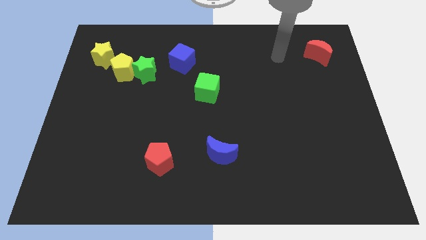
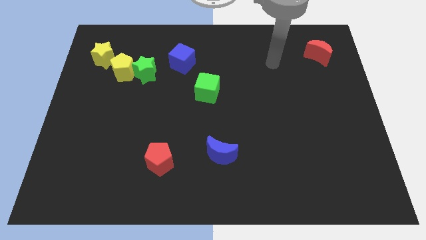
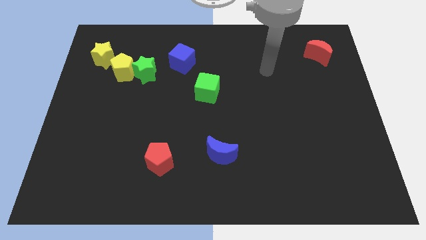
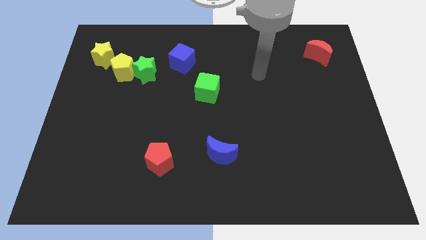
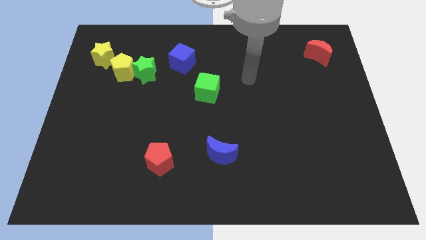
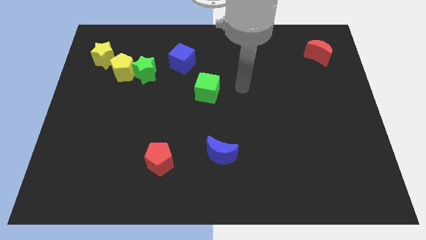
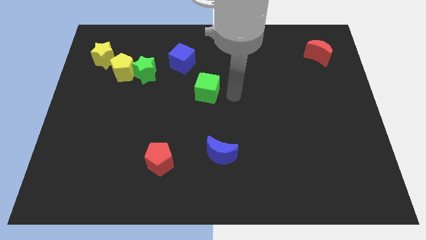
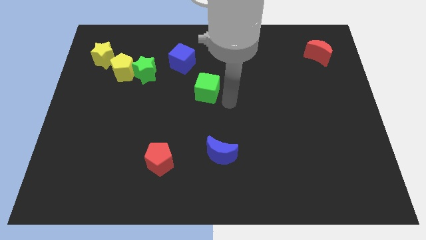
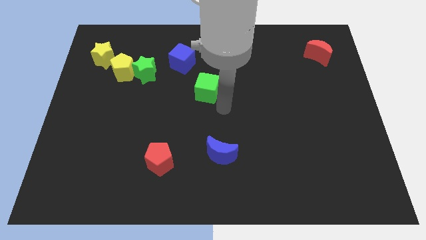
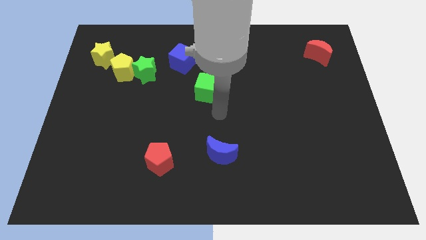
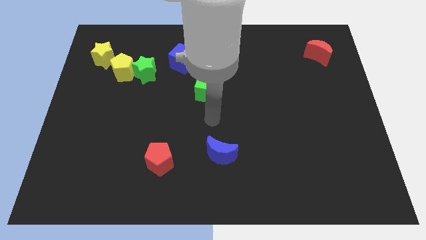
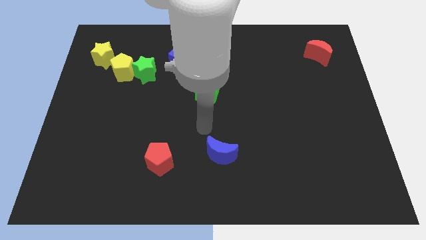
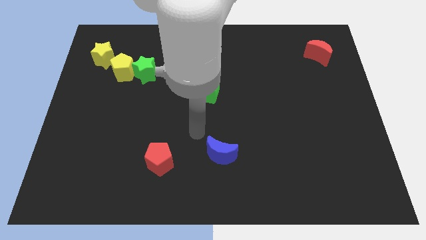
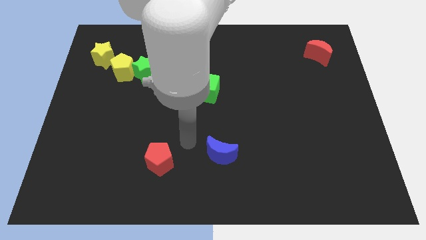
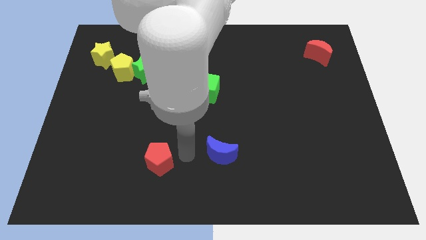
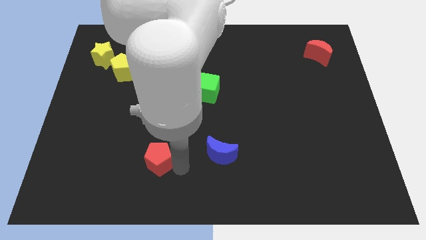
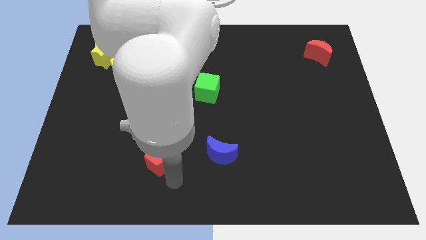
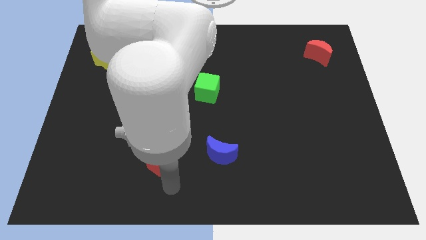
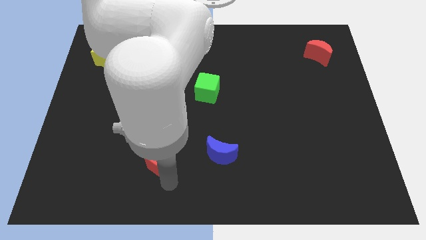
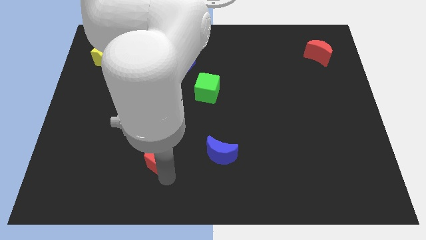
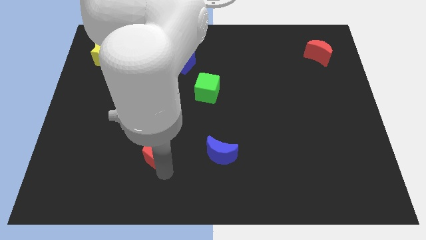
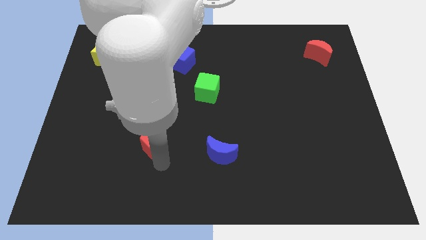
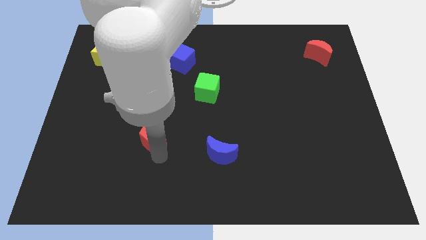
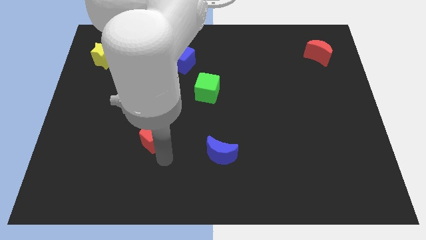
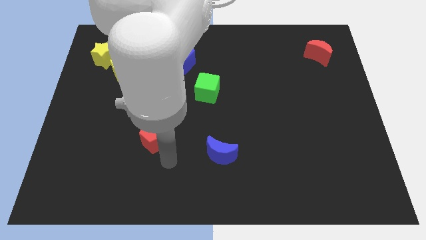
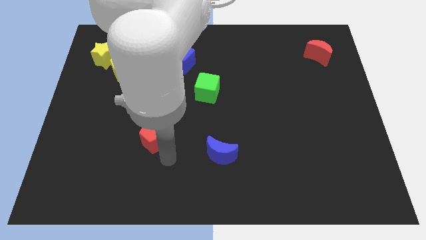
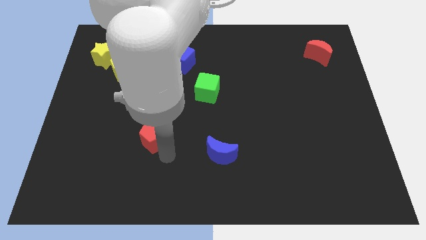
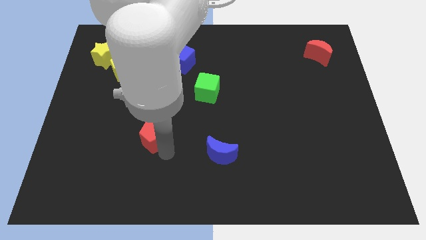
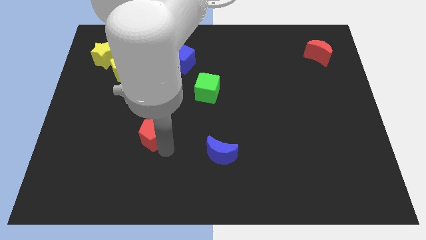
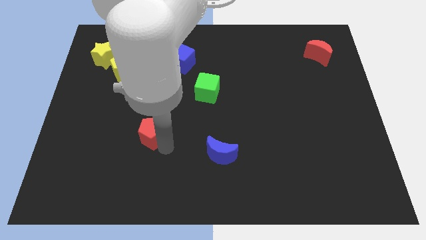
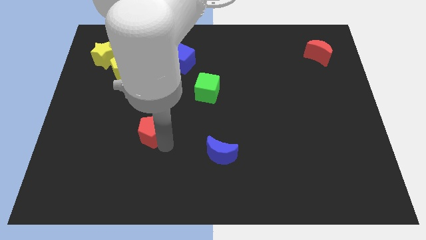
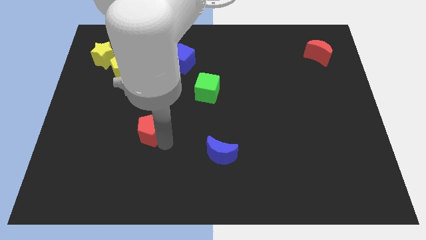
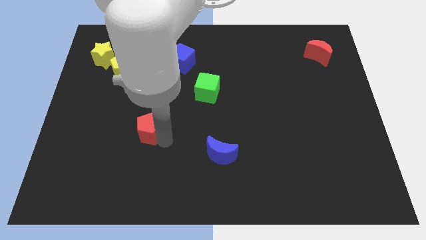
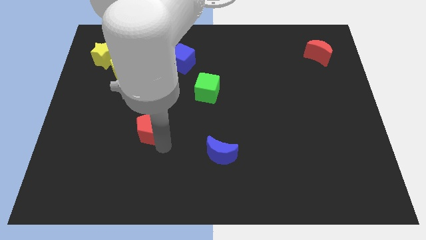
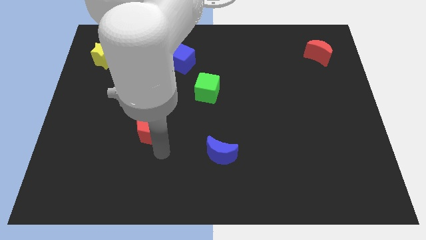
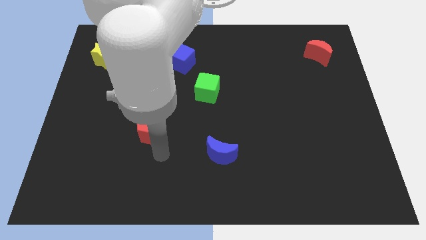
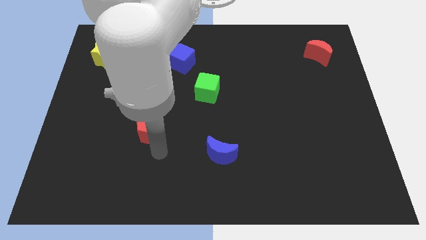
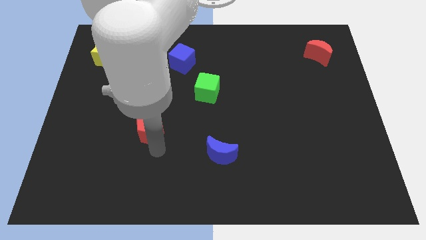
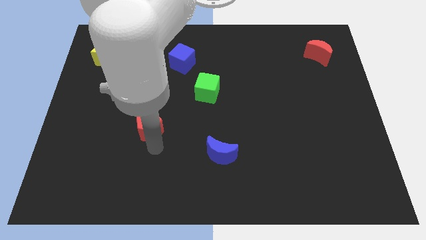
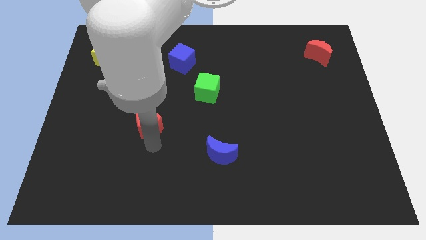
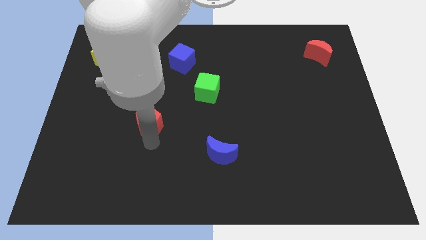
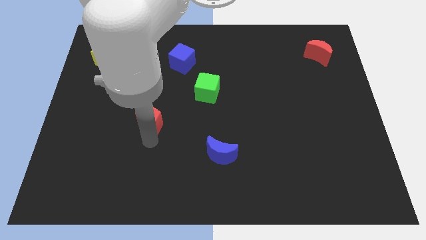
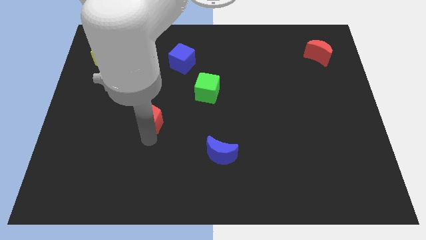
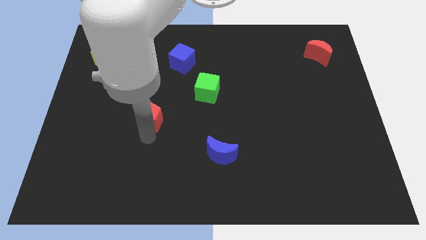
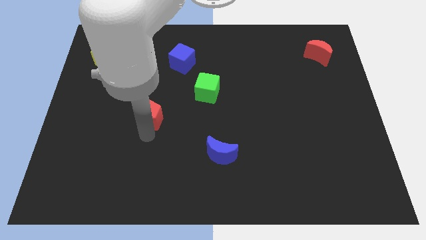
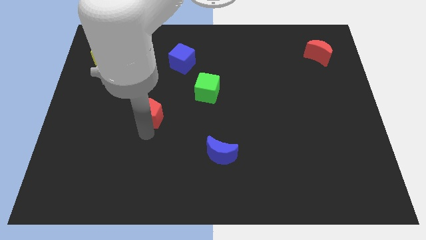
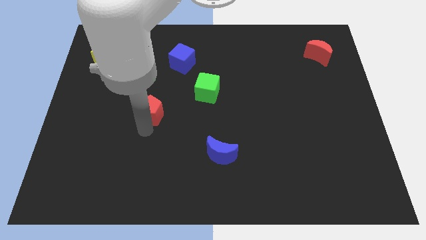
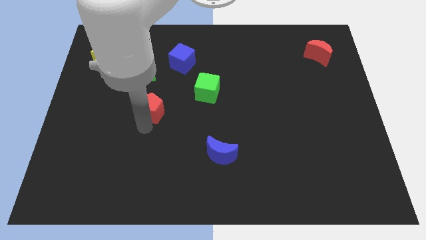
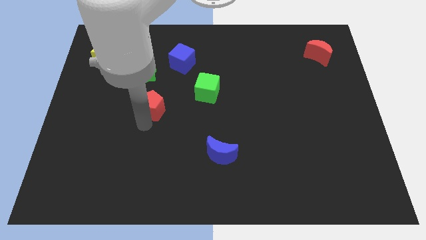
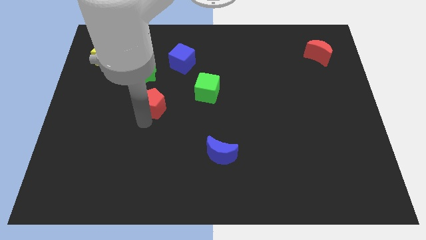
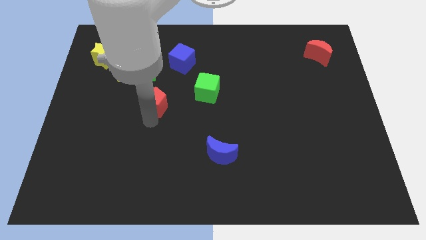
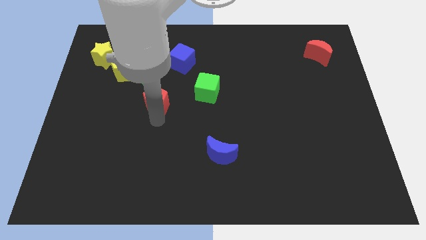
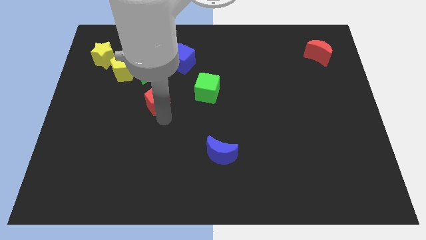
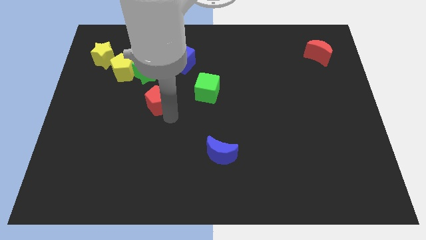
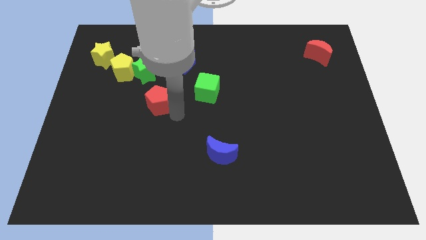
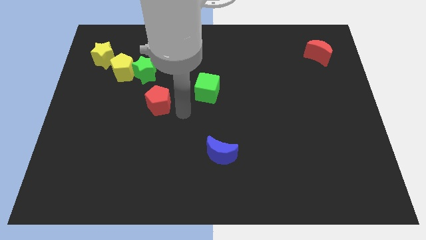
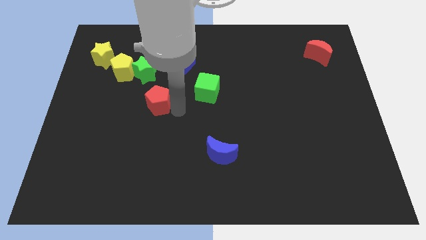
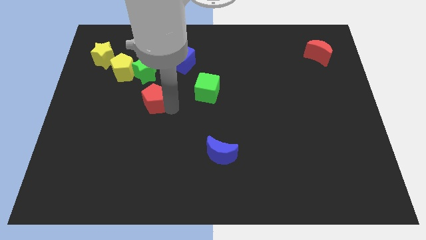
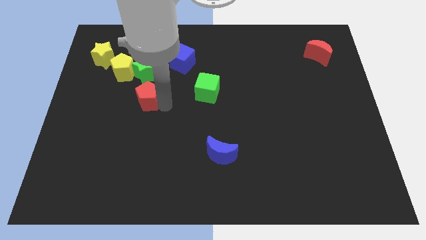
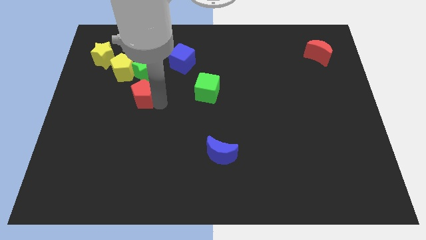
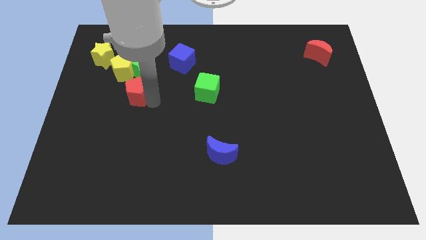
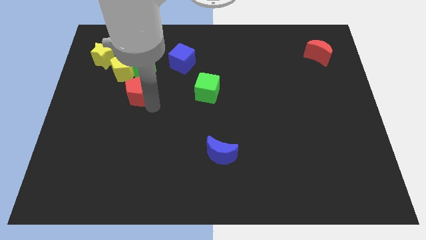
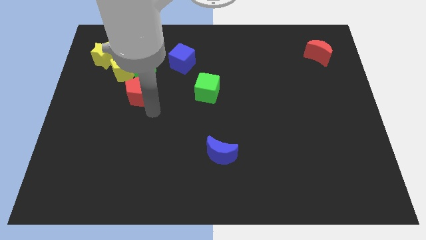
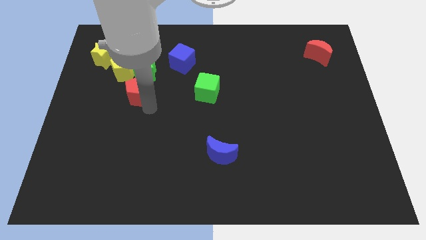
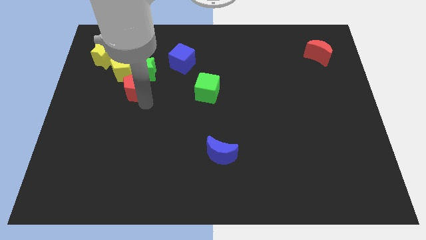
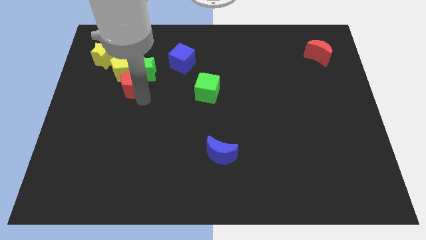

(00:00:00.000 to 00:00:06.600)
move the red pentagon next to the yellow pentagon
